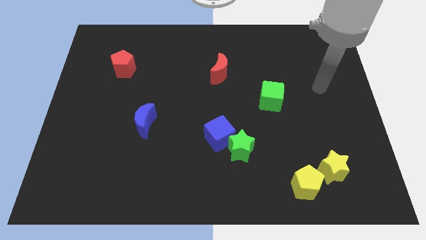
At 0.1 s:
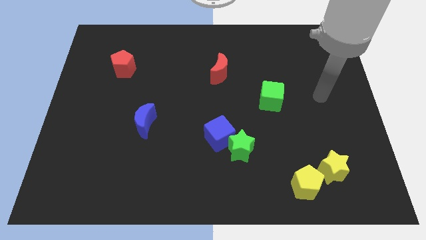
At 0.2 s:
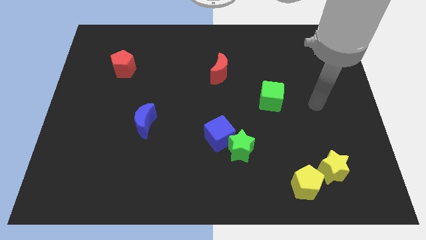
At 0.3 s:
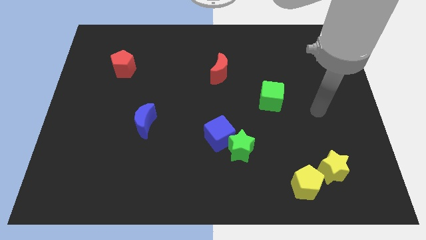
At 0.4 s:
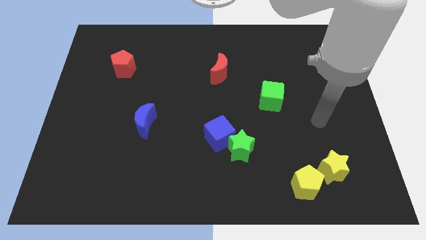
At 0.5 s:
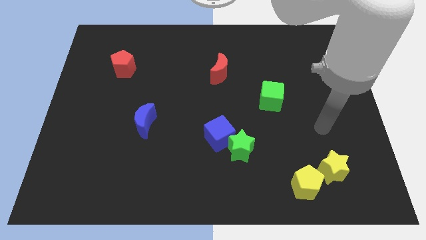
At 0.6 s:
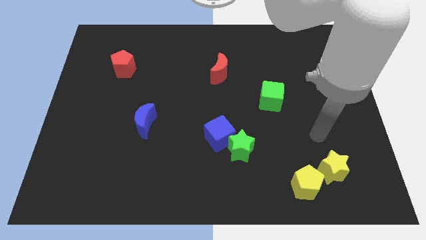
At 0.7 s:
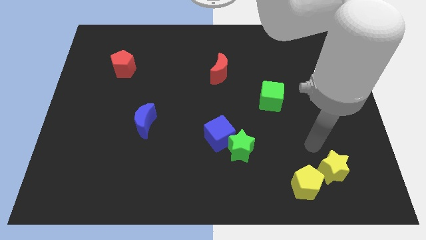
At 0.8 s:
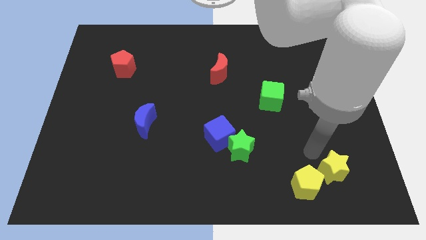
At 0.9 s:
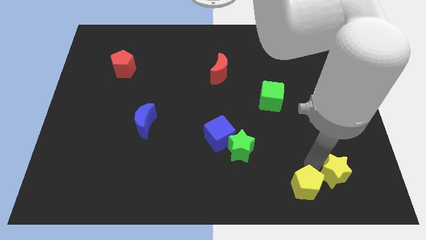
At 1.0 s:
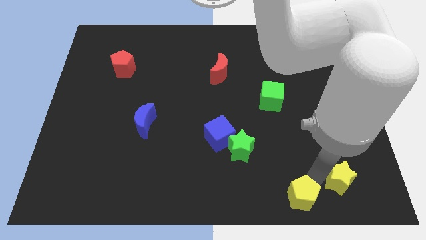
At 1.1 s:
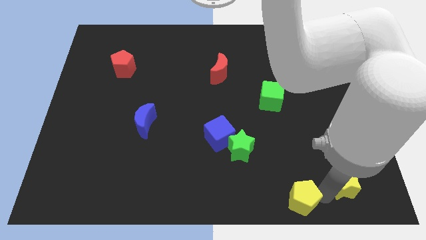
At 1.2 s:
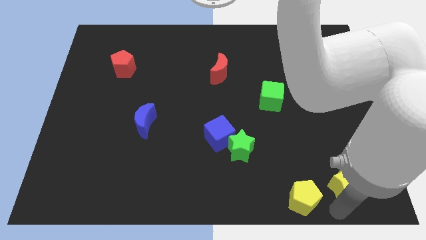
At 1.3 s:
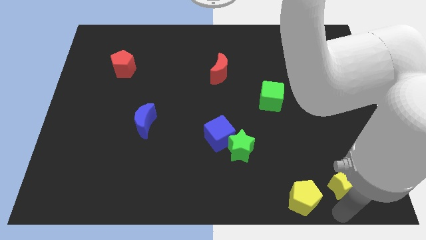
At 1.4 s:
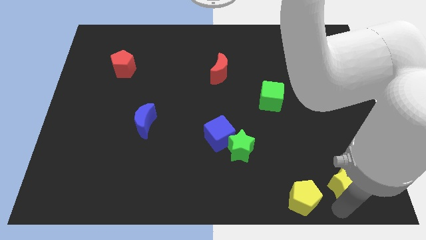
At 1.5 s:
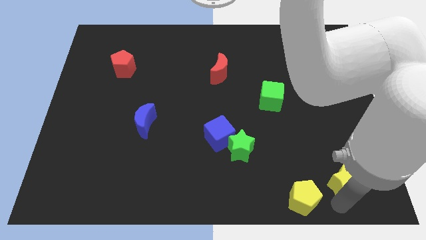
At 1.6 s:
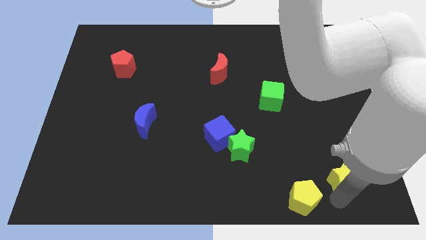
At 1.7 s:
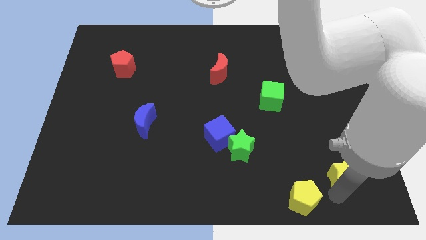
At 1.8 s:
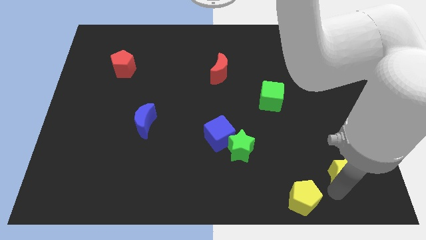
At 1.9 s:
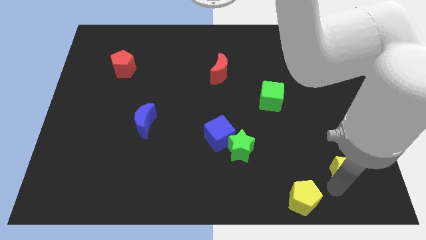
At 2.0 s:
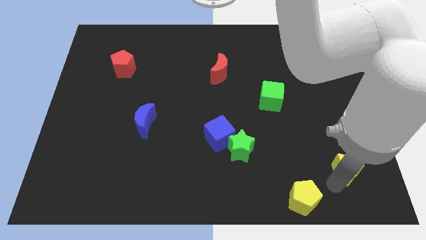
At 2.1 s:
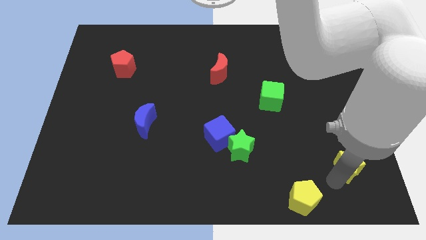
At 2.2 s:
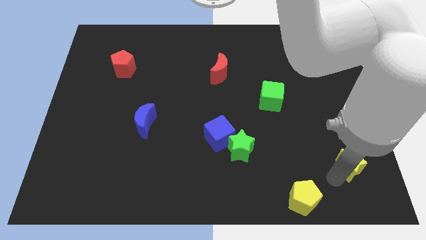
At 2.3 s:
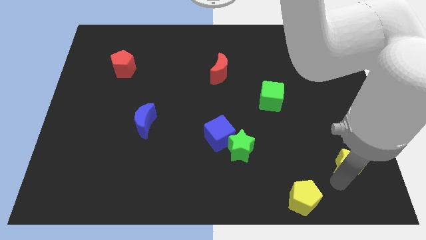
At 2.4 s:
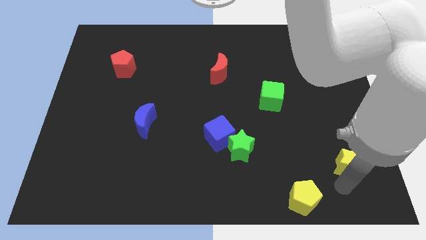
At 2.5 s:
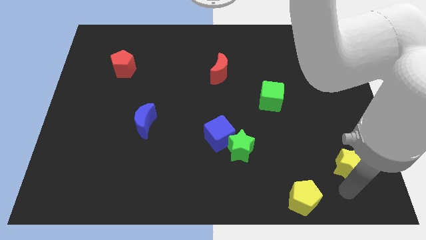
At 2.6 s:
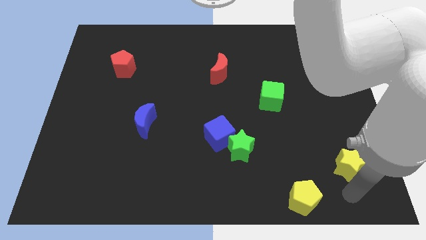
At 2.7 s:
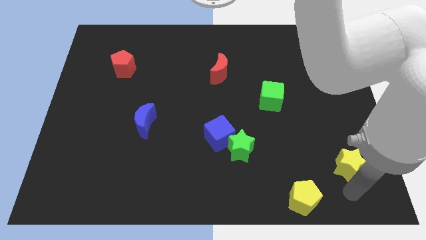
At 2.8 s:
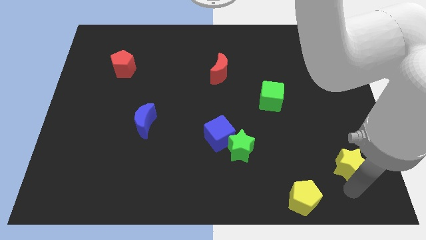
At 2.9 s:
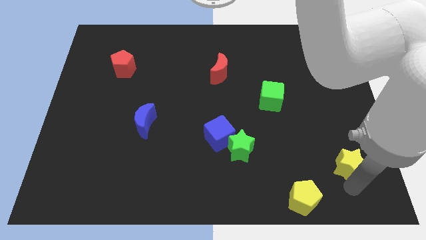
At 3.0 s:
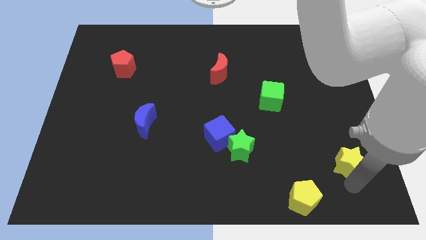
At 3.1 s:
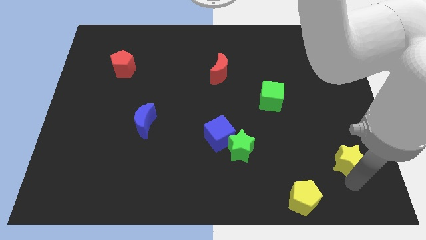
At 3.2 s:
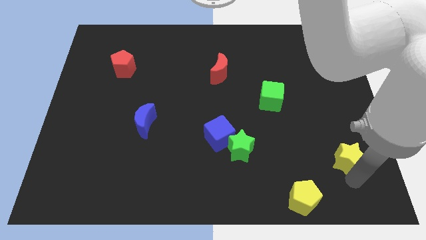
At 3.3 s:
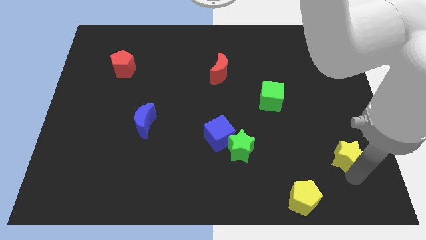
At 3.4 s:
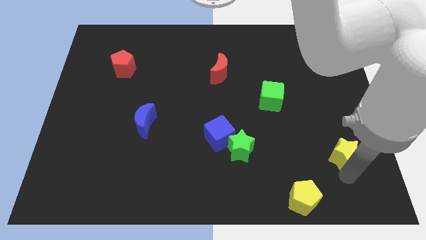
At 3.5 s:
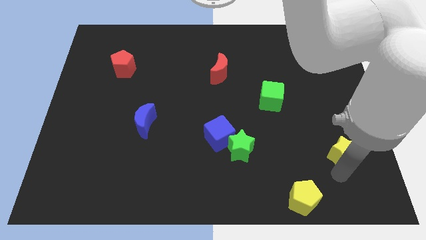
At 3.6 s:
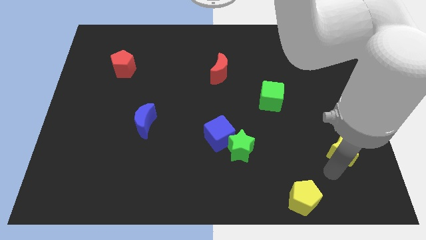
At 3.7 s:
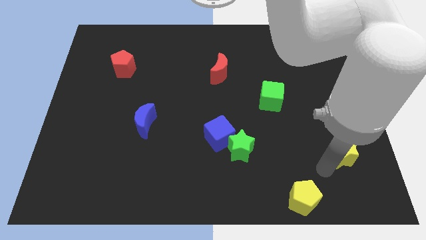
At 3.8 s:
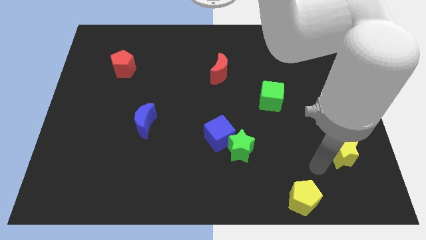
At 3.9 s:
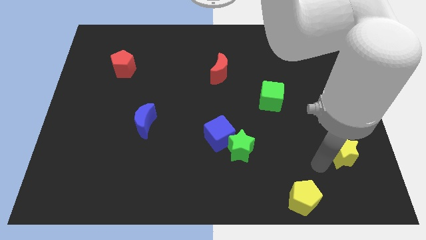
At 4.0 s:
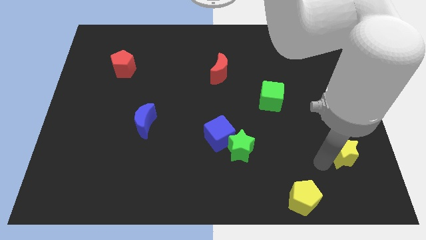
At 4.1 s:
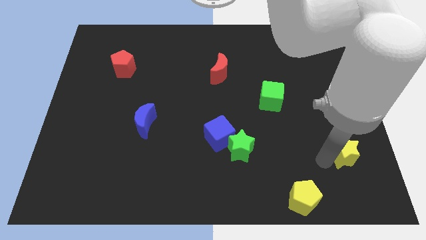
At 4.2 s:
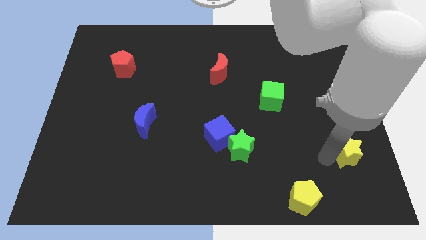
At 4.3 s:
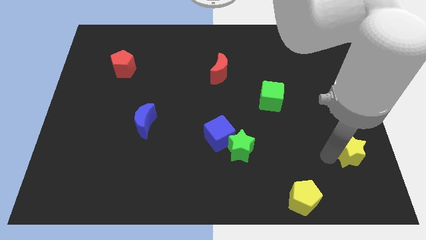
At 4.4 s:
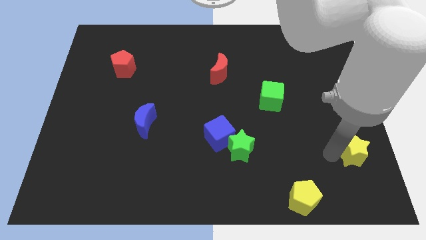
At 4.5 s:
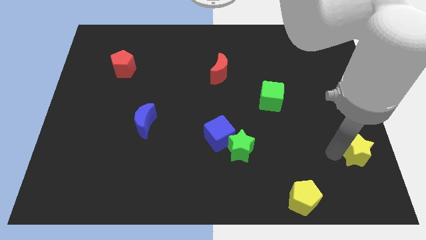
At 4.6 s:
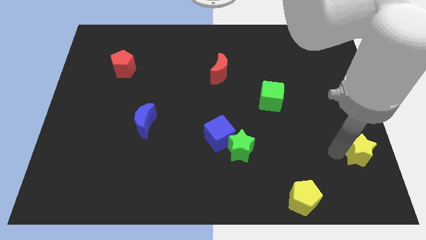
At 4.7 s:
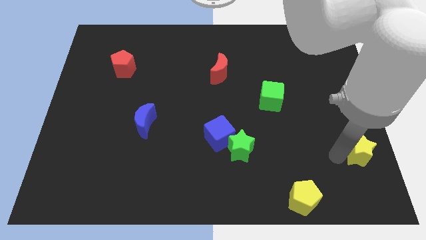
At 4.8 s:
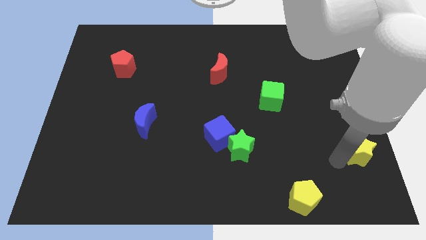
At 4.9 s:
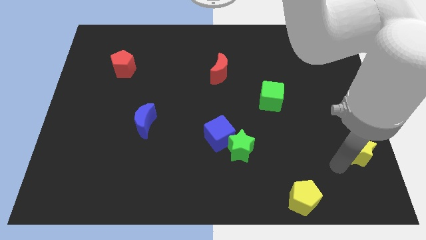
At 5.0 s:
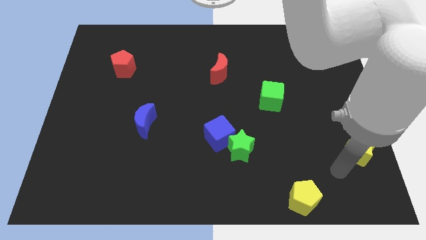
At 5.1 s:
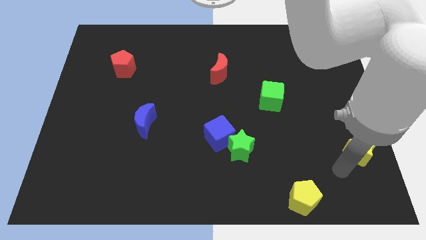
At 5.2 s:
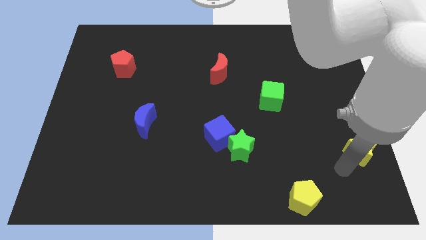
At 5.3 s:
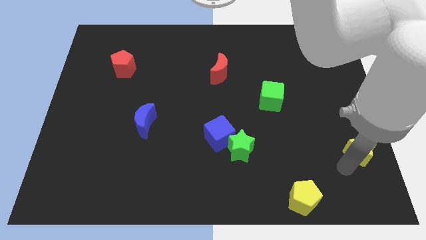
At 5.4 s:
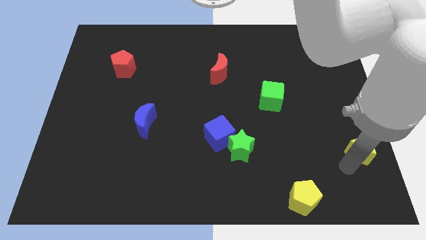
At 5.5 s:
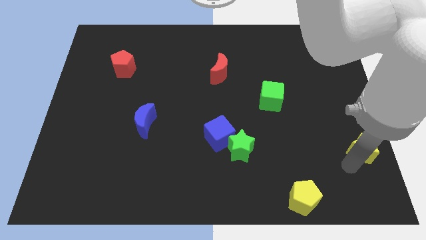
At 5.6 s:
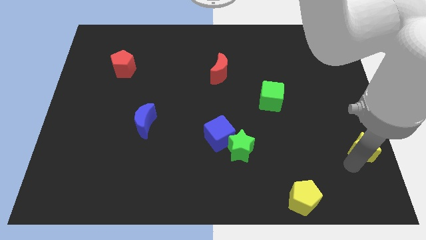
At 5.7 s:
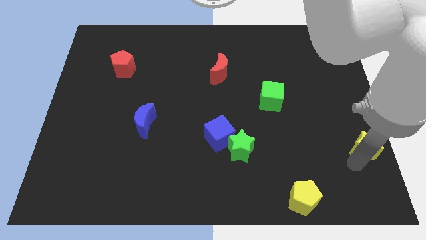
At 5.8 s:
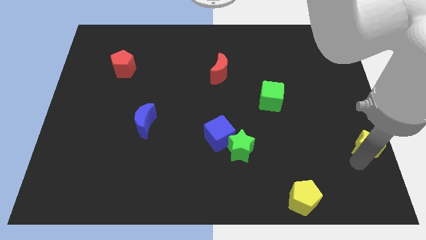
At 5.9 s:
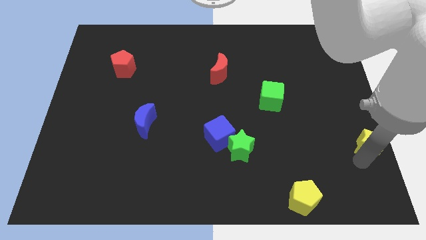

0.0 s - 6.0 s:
put the yellow star to the right side
